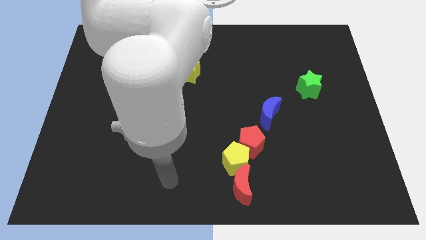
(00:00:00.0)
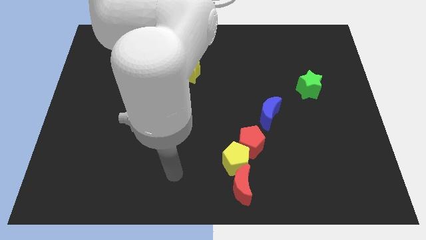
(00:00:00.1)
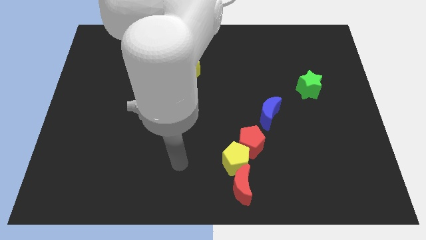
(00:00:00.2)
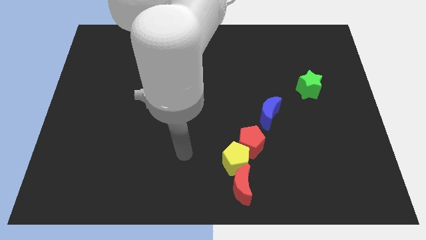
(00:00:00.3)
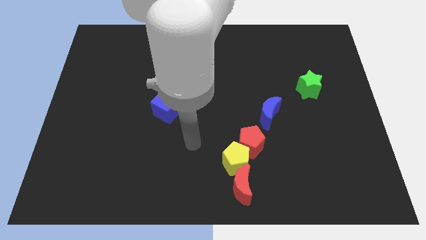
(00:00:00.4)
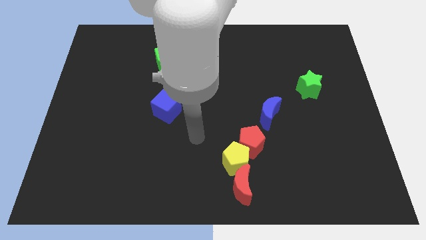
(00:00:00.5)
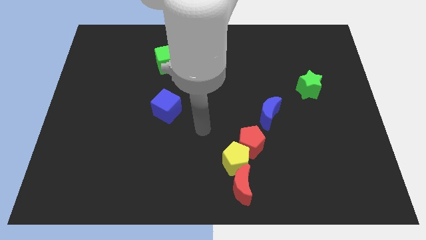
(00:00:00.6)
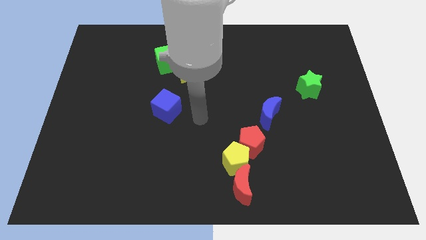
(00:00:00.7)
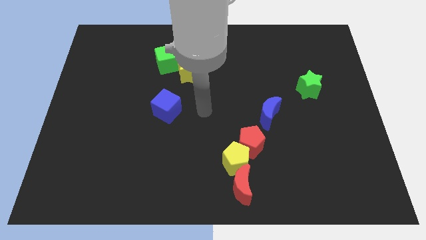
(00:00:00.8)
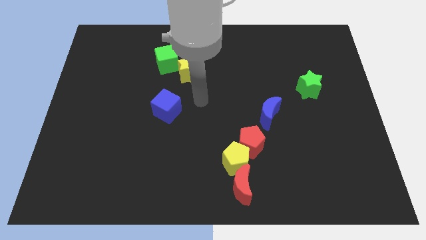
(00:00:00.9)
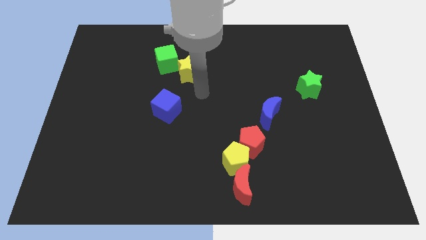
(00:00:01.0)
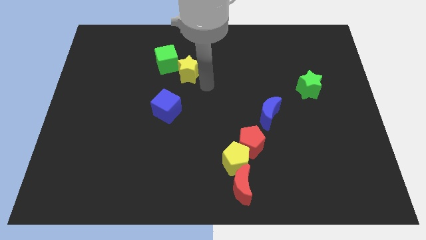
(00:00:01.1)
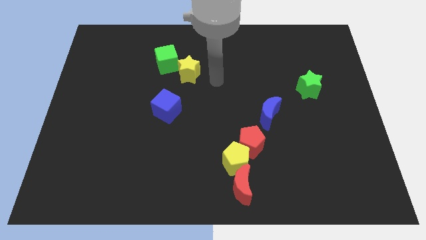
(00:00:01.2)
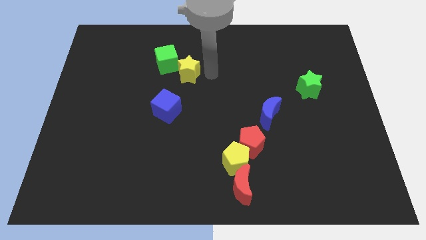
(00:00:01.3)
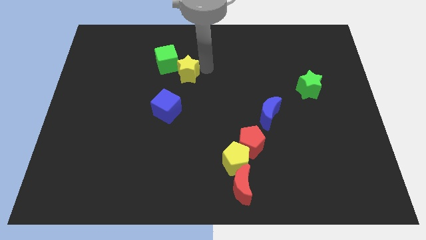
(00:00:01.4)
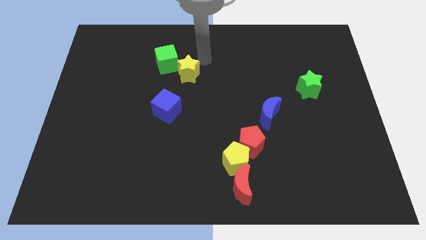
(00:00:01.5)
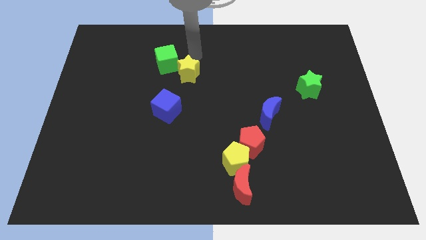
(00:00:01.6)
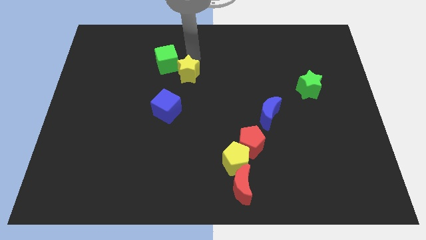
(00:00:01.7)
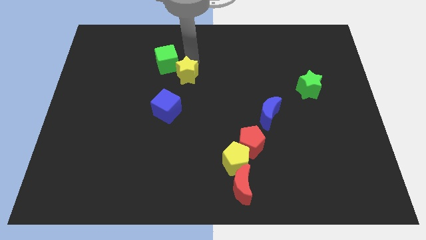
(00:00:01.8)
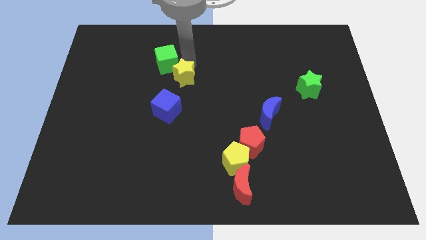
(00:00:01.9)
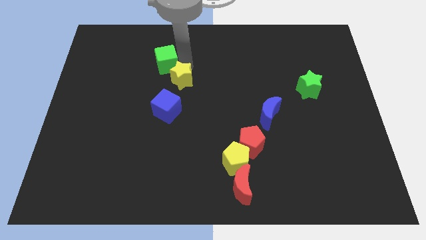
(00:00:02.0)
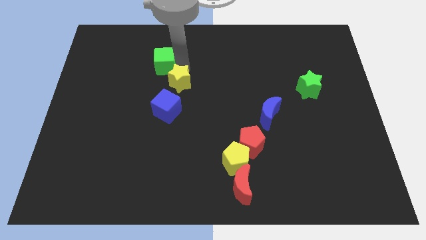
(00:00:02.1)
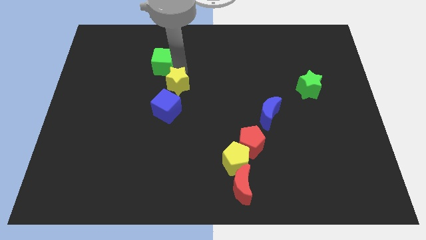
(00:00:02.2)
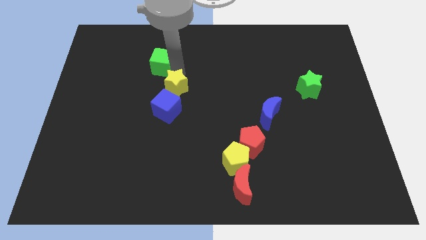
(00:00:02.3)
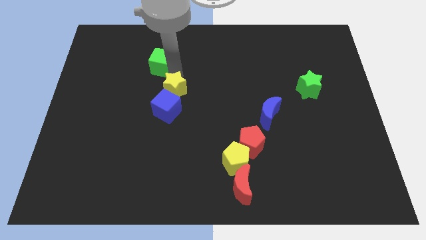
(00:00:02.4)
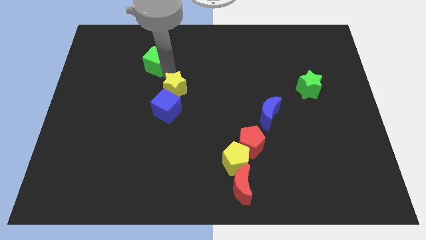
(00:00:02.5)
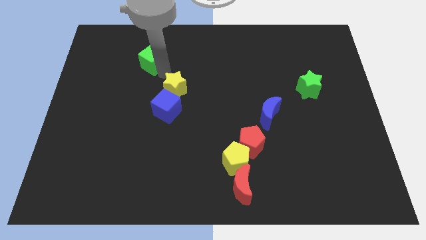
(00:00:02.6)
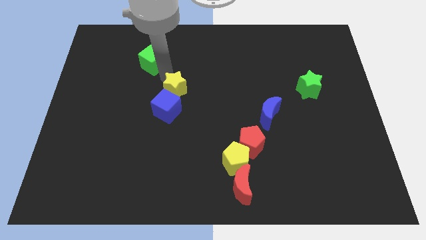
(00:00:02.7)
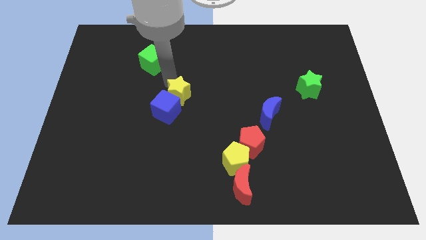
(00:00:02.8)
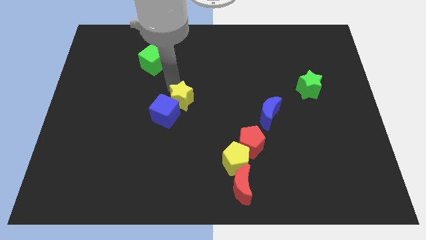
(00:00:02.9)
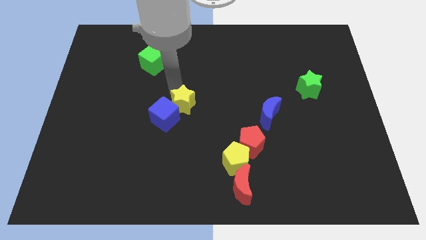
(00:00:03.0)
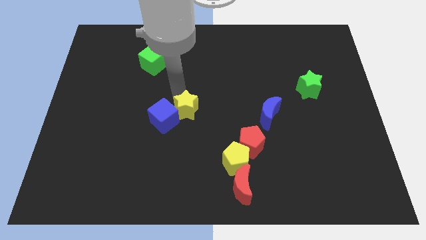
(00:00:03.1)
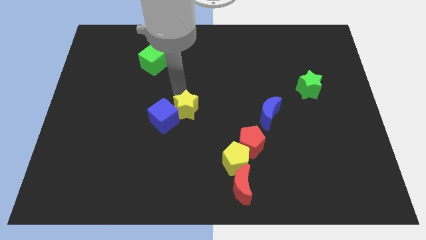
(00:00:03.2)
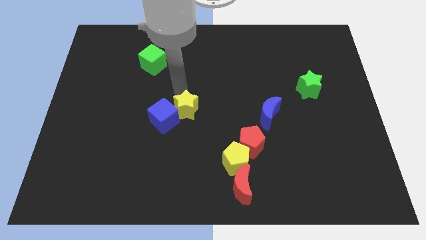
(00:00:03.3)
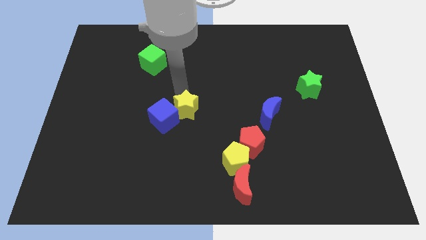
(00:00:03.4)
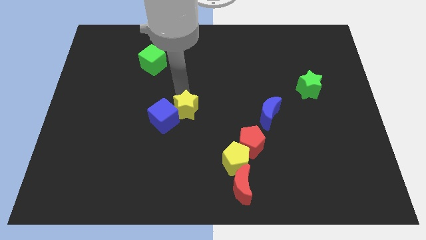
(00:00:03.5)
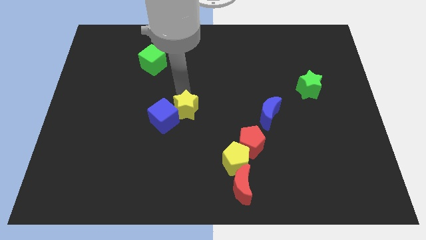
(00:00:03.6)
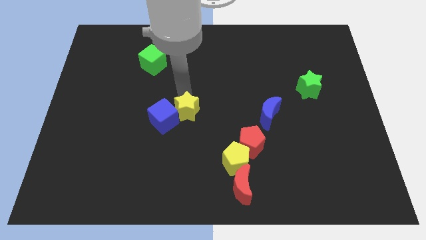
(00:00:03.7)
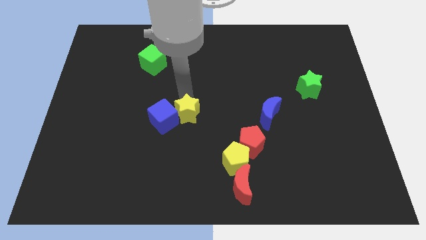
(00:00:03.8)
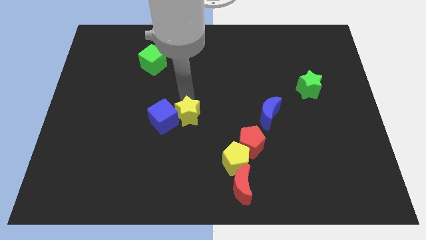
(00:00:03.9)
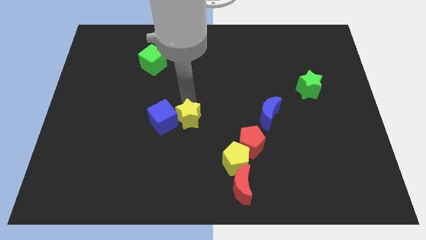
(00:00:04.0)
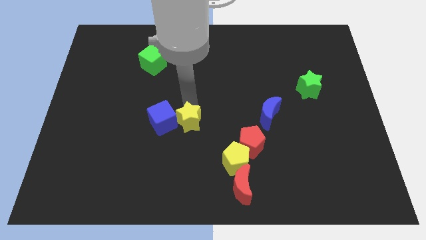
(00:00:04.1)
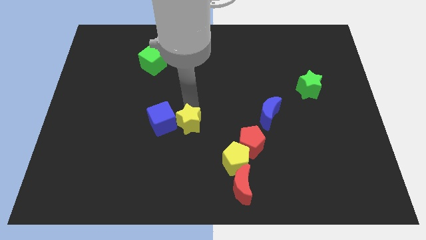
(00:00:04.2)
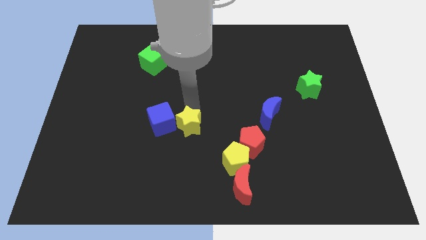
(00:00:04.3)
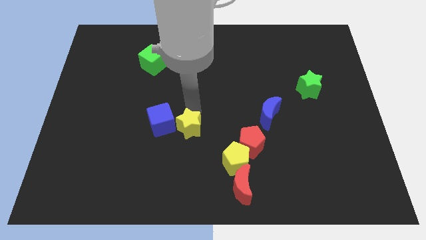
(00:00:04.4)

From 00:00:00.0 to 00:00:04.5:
push the yellow star to the left side of the red pentagon

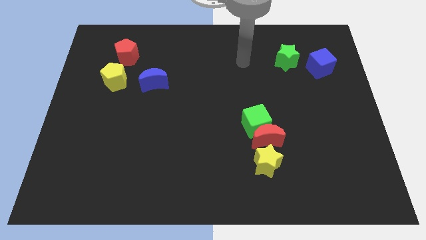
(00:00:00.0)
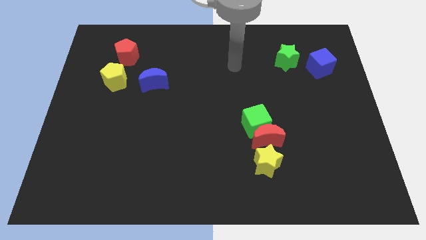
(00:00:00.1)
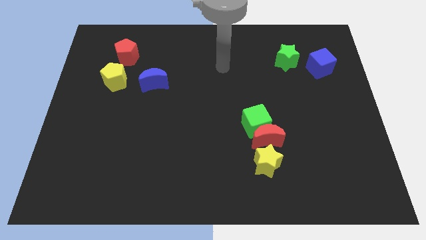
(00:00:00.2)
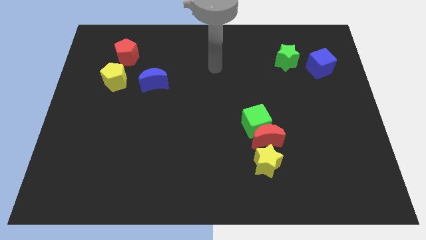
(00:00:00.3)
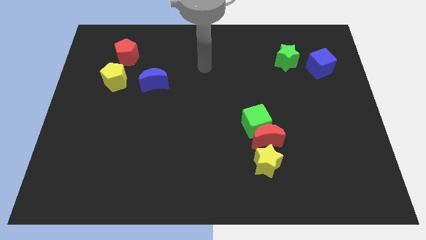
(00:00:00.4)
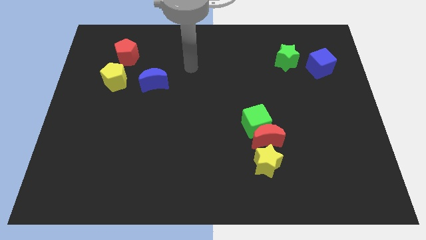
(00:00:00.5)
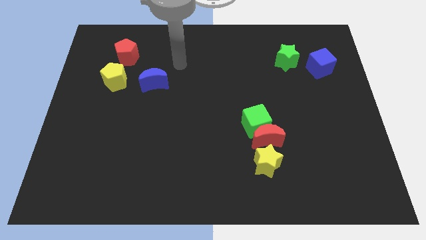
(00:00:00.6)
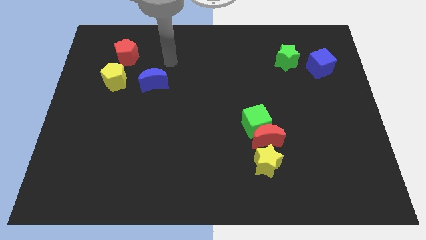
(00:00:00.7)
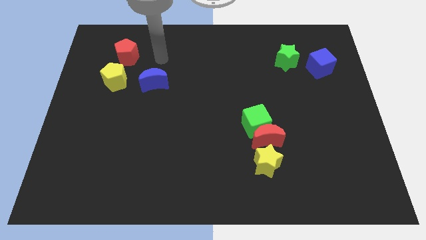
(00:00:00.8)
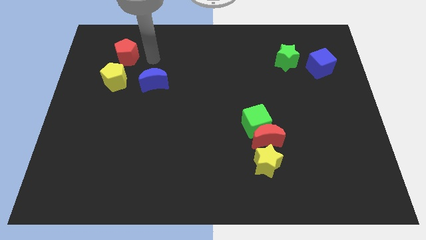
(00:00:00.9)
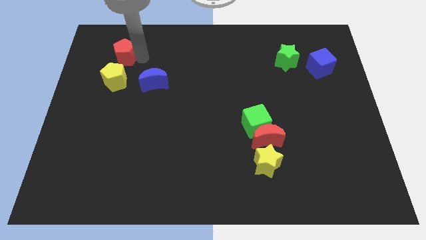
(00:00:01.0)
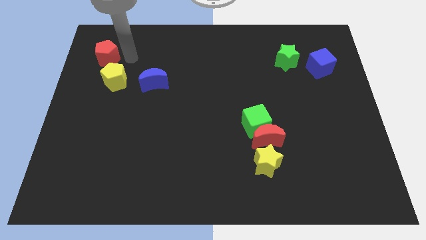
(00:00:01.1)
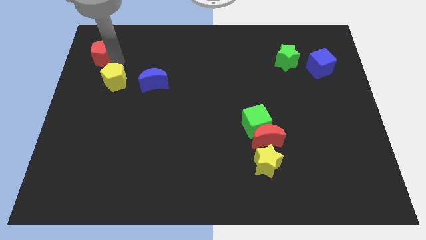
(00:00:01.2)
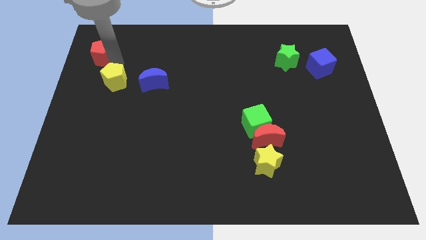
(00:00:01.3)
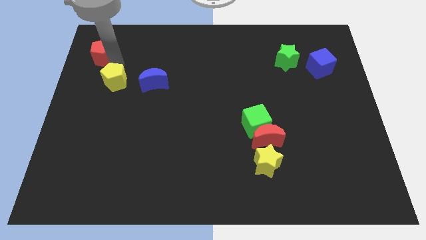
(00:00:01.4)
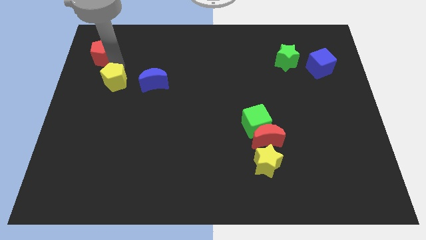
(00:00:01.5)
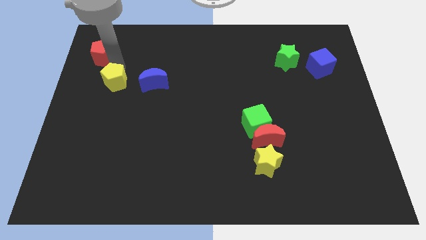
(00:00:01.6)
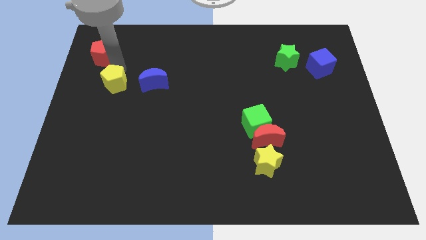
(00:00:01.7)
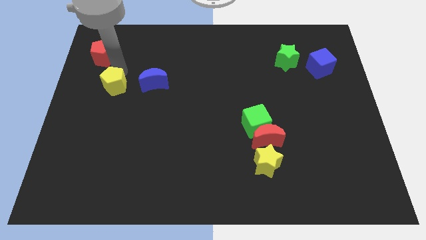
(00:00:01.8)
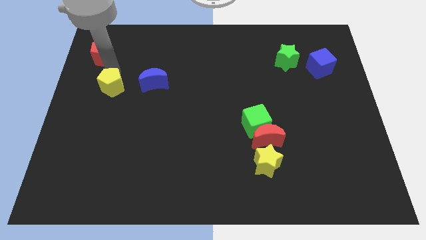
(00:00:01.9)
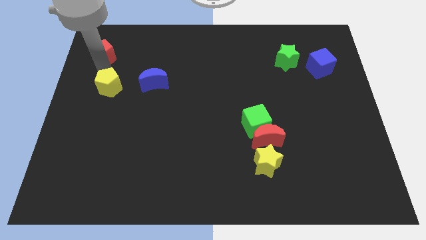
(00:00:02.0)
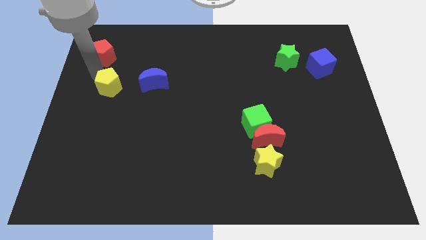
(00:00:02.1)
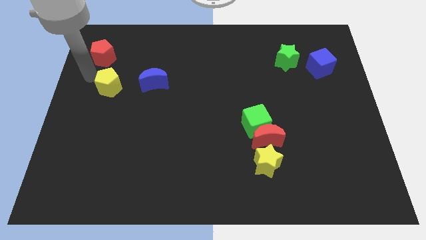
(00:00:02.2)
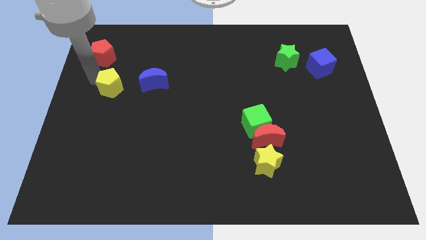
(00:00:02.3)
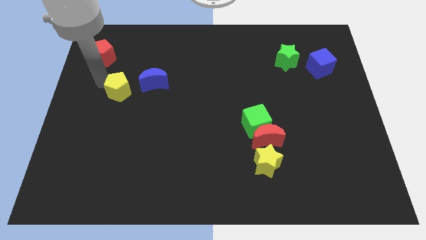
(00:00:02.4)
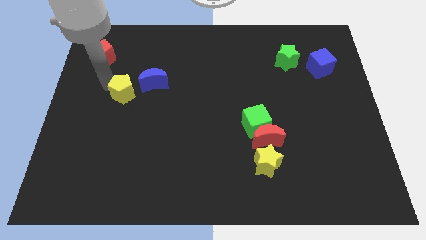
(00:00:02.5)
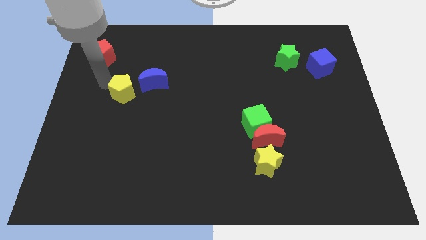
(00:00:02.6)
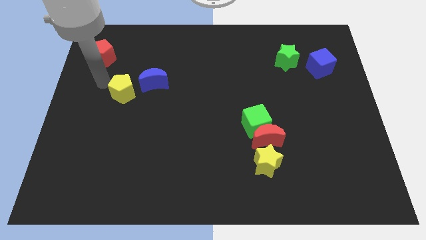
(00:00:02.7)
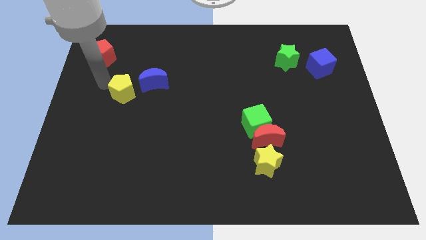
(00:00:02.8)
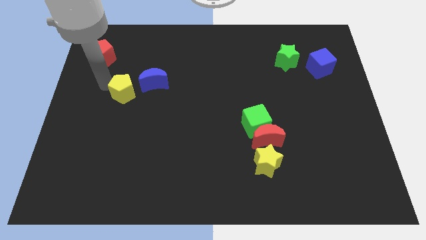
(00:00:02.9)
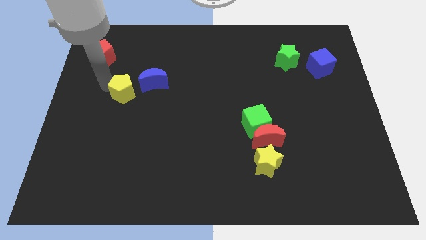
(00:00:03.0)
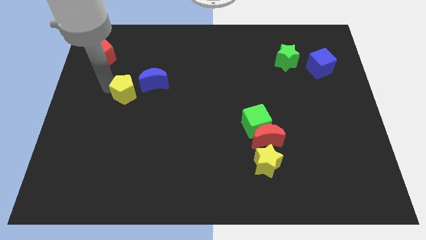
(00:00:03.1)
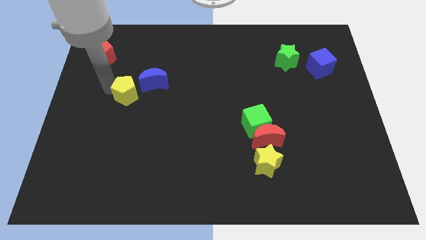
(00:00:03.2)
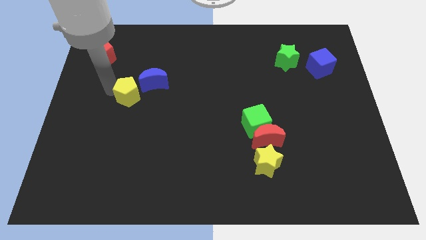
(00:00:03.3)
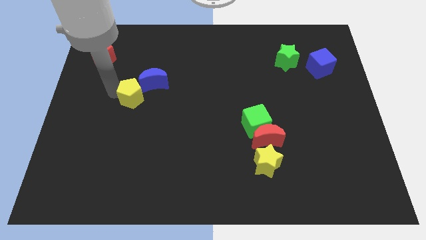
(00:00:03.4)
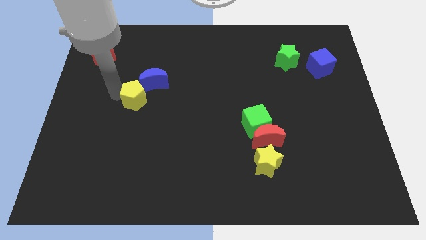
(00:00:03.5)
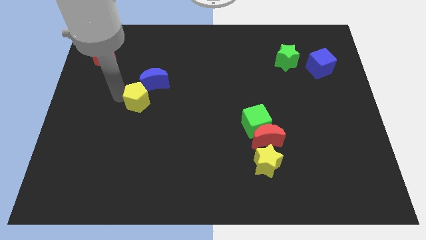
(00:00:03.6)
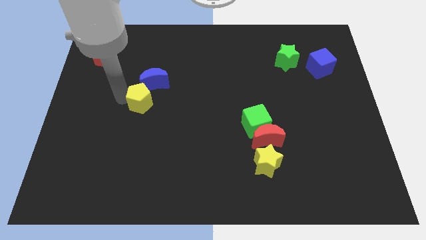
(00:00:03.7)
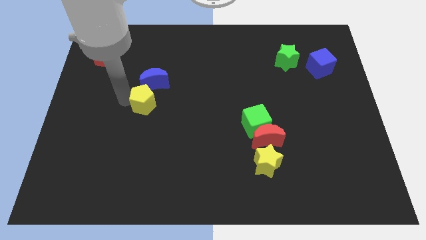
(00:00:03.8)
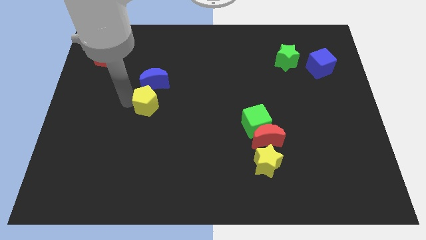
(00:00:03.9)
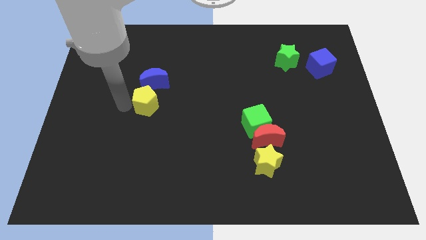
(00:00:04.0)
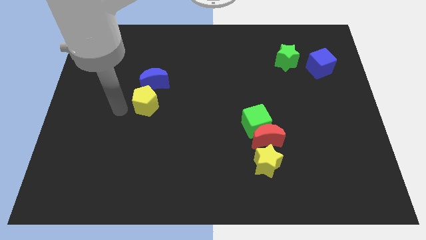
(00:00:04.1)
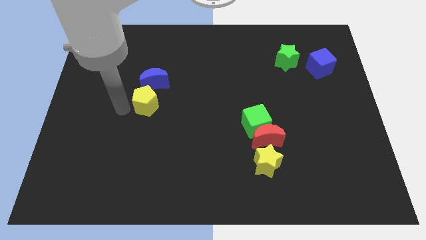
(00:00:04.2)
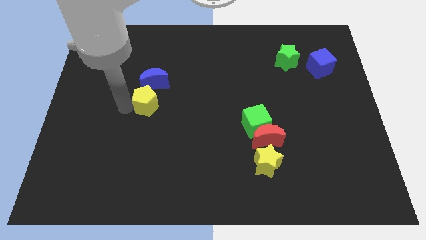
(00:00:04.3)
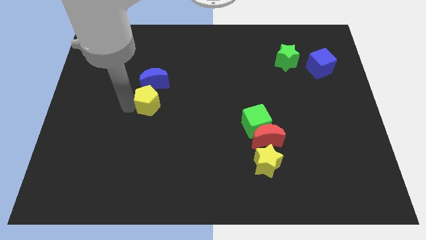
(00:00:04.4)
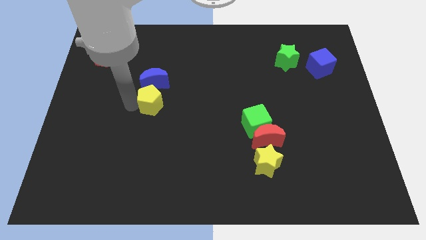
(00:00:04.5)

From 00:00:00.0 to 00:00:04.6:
put the yellow pentagon to the bottom right side of the blue moon
